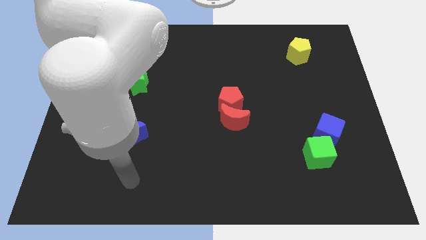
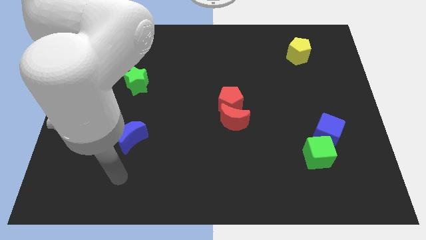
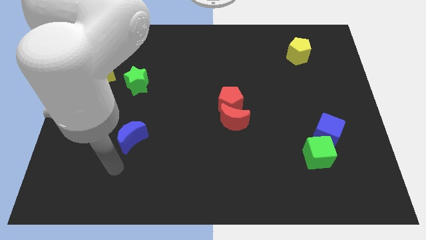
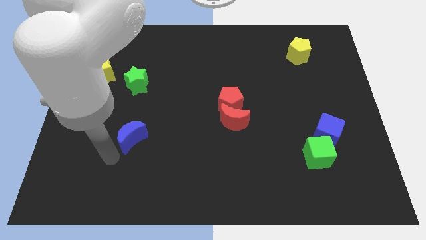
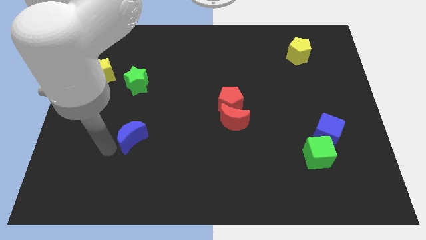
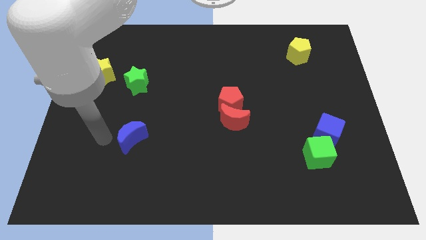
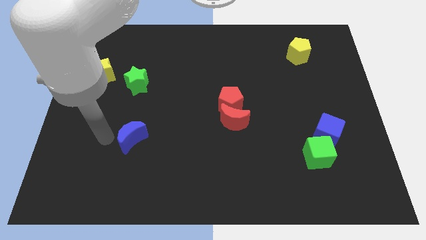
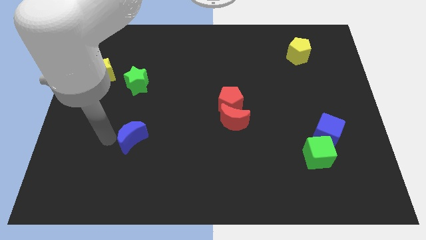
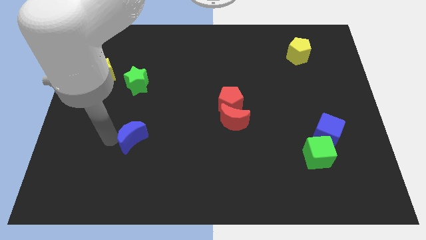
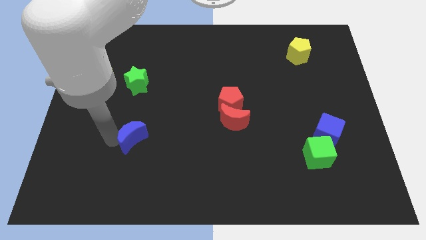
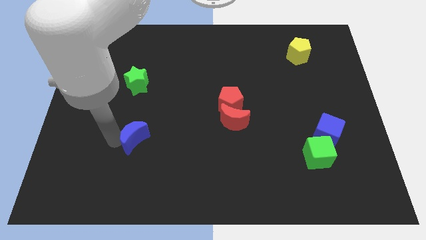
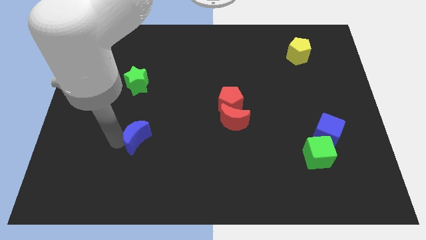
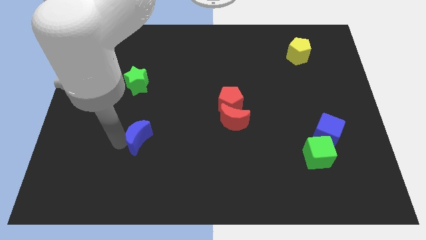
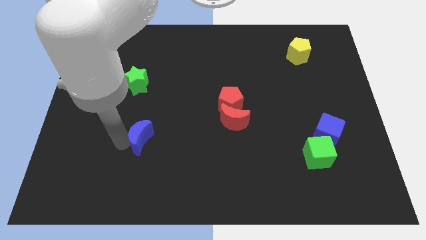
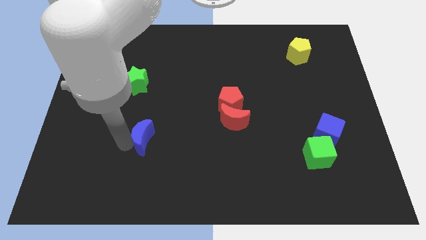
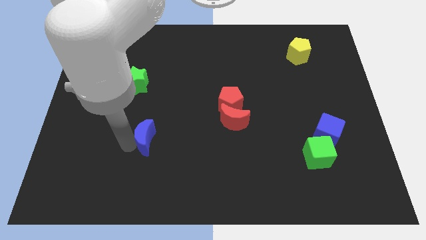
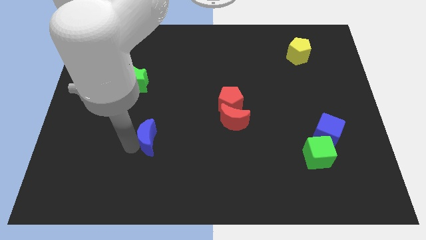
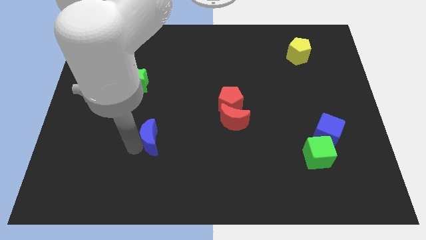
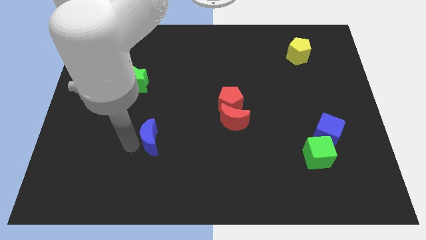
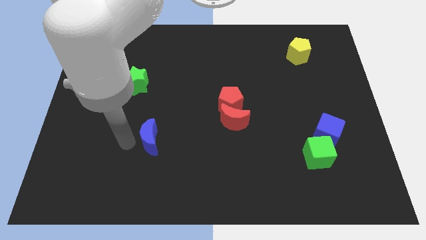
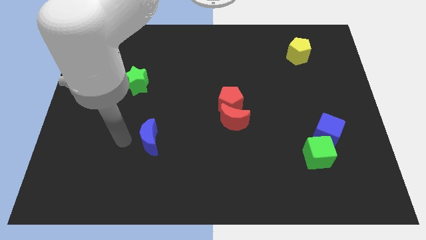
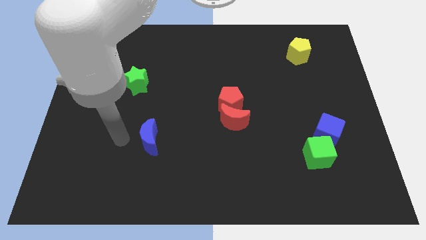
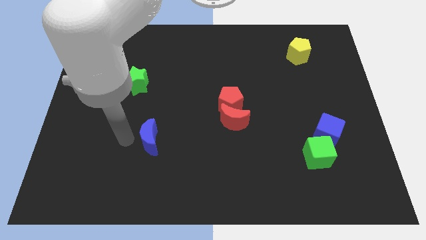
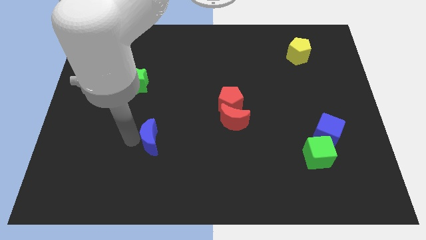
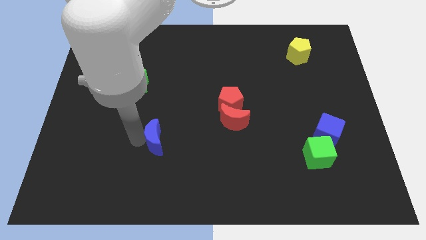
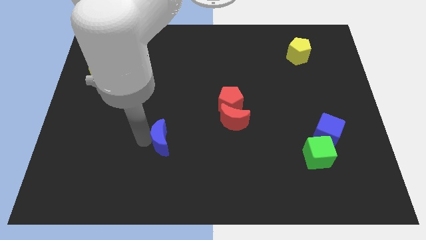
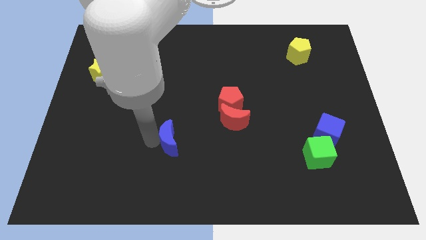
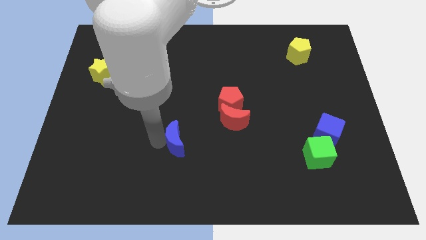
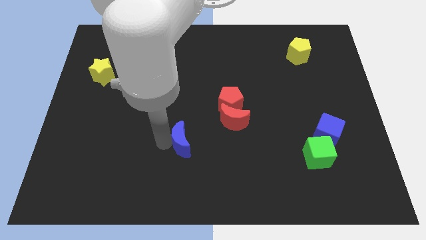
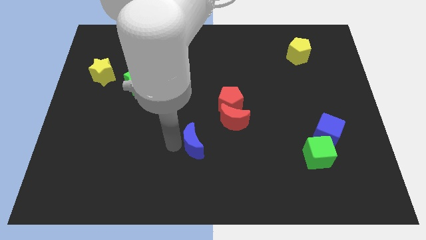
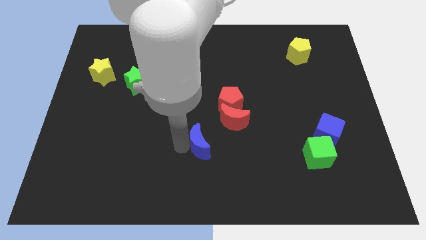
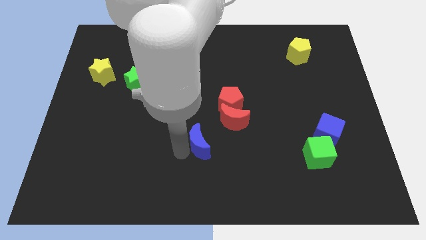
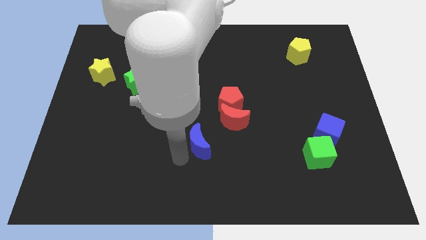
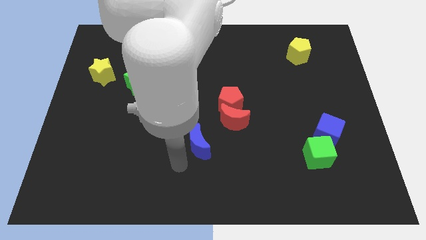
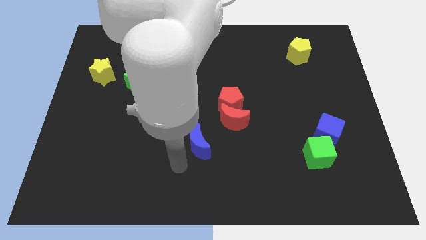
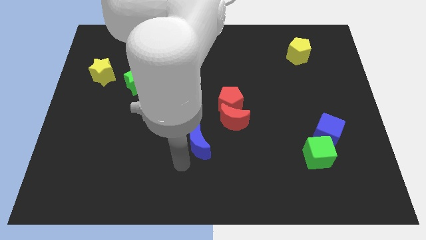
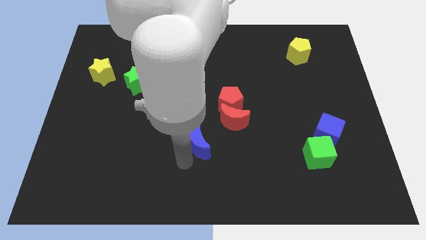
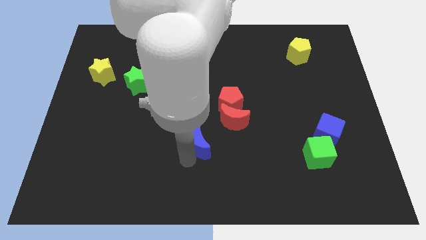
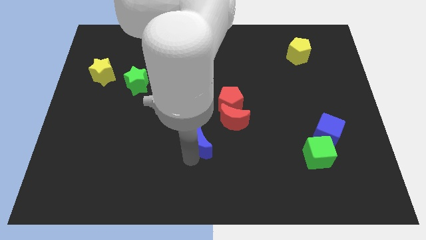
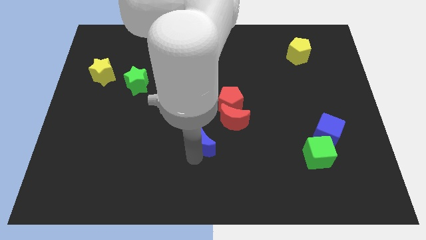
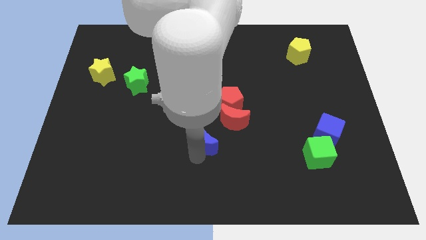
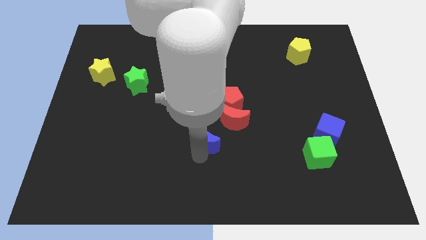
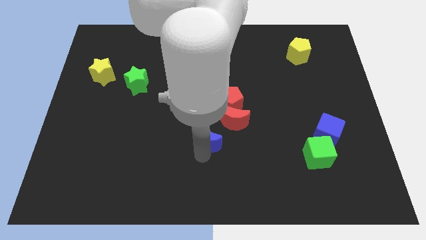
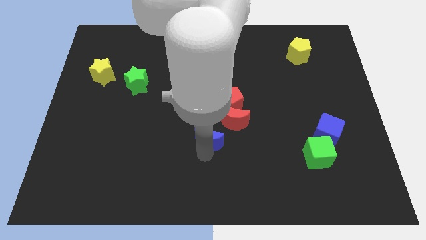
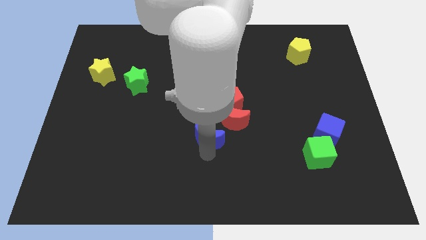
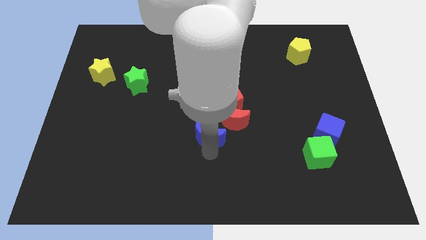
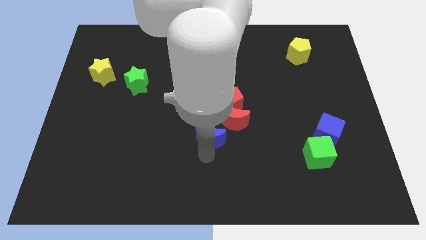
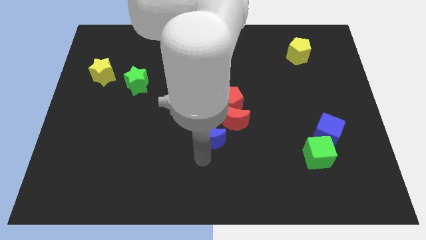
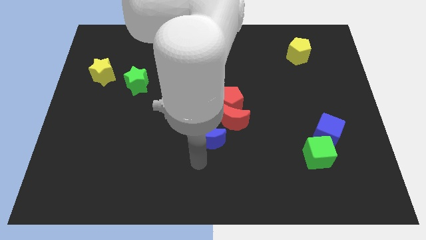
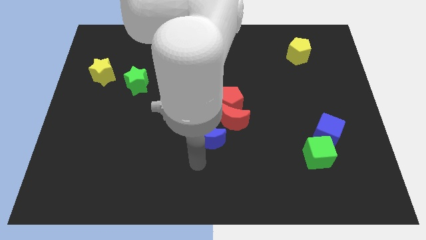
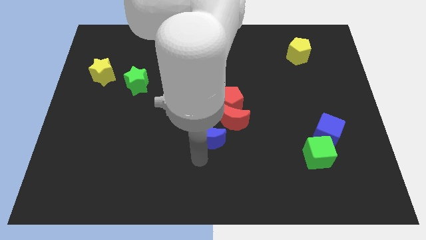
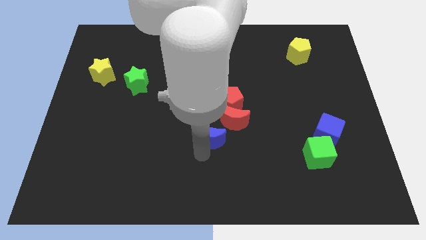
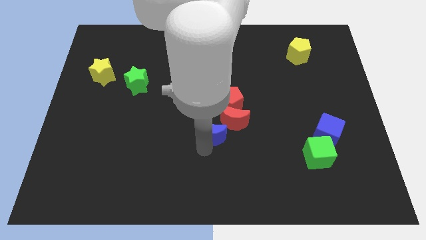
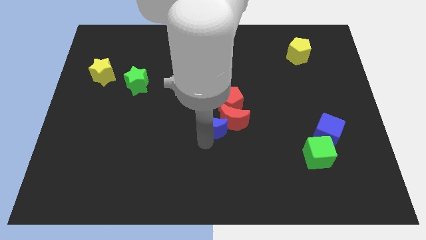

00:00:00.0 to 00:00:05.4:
put the blue moon close to the red moon

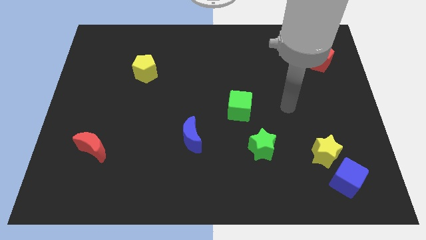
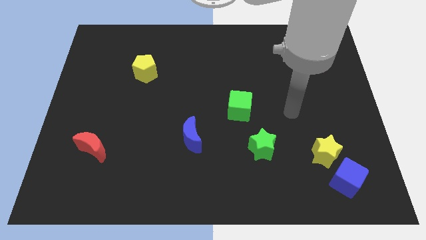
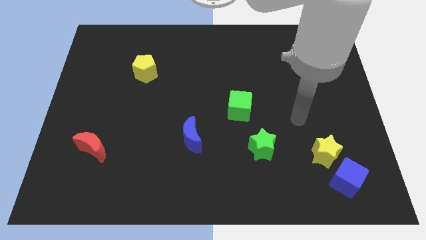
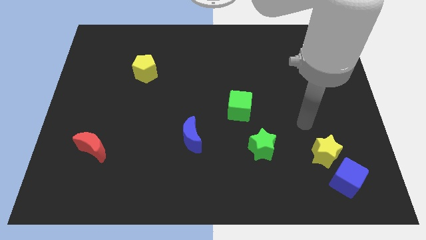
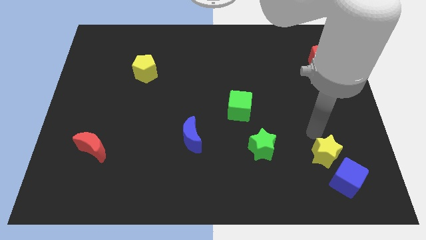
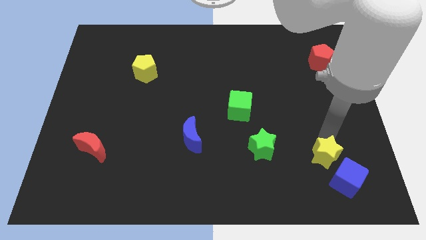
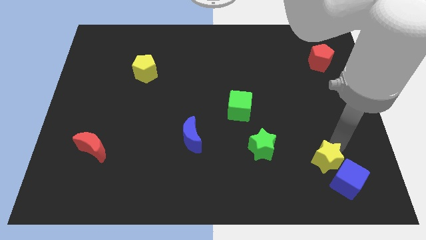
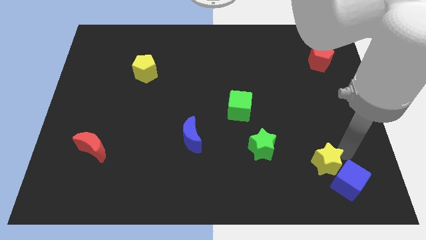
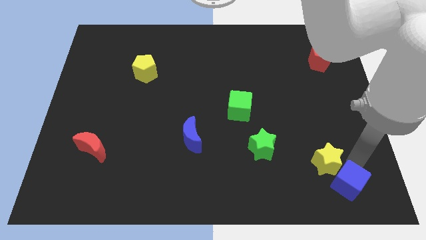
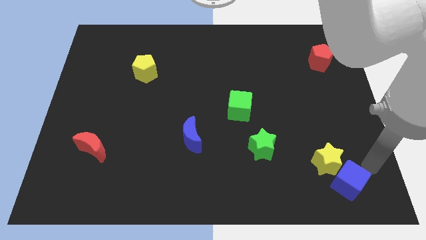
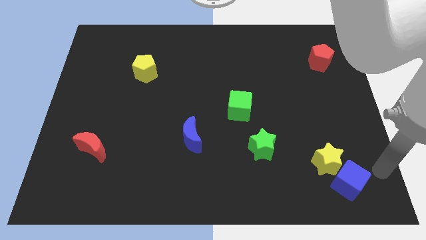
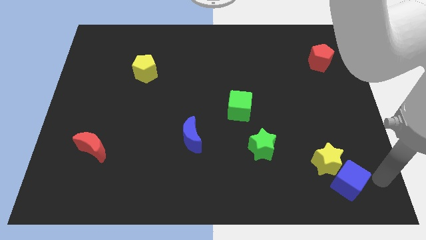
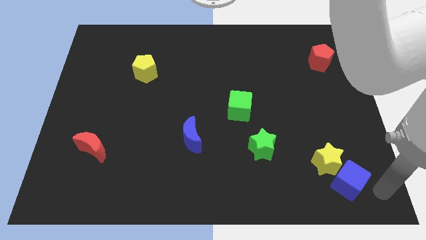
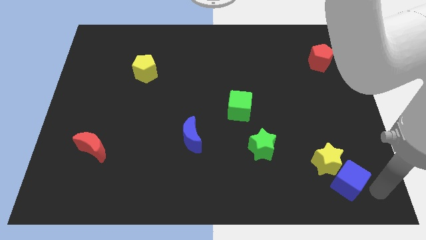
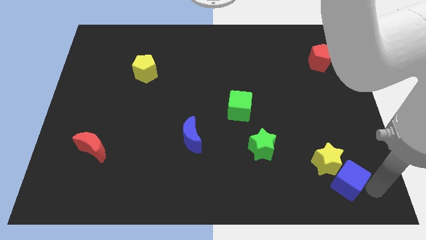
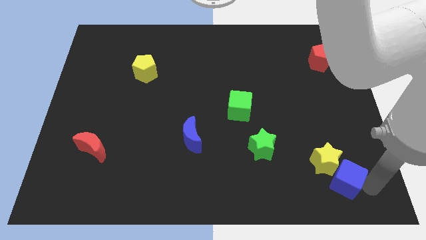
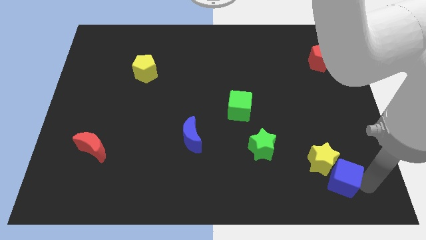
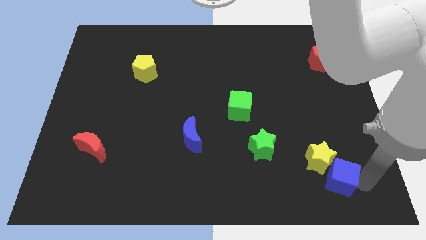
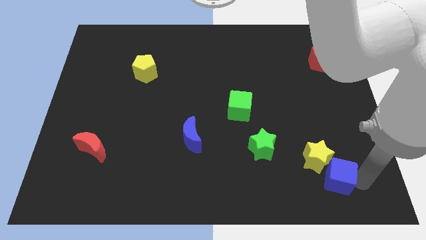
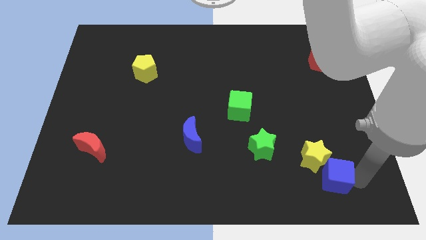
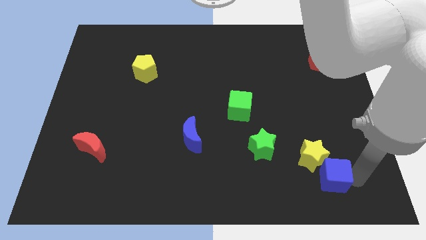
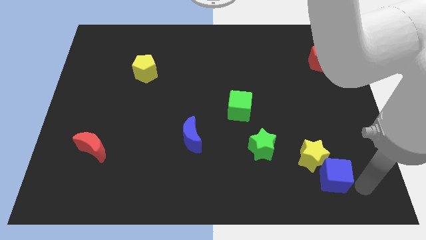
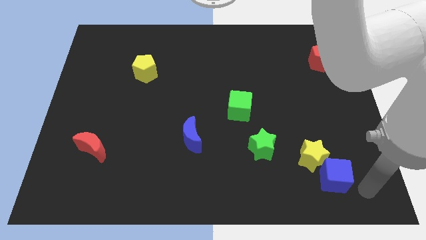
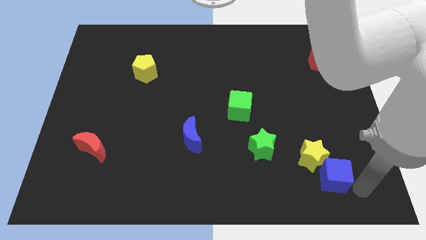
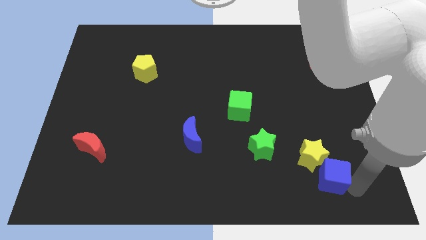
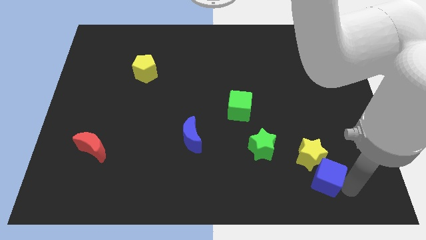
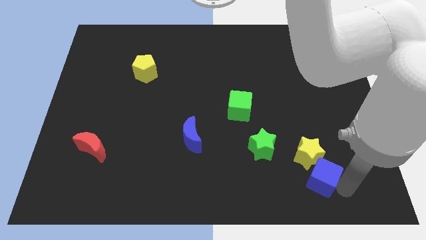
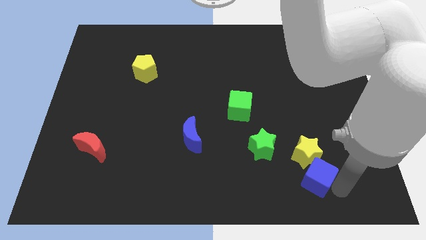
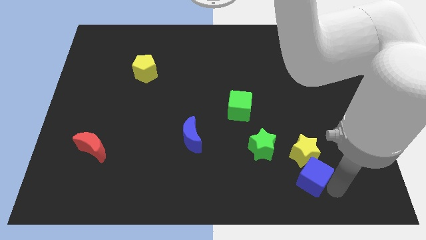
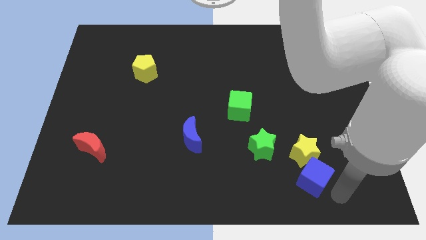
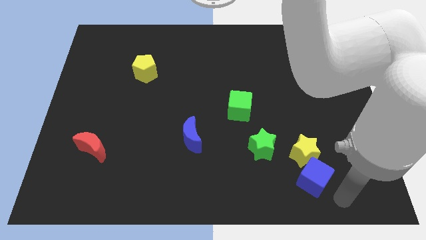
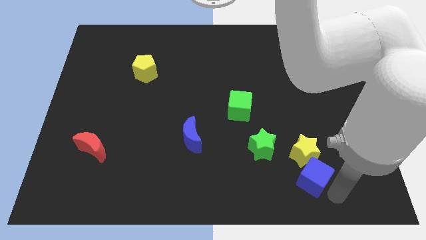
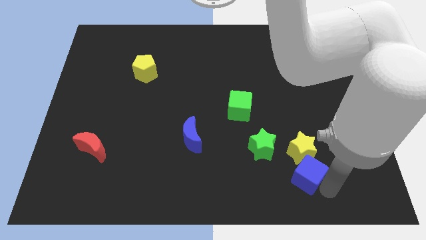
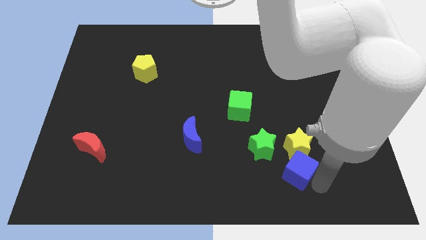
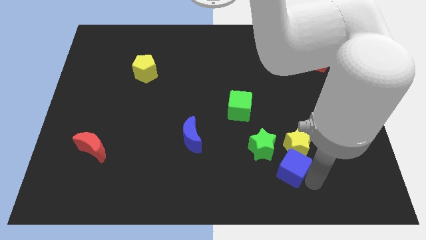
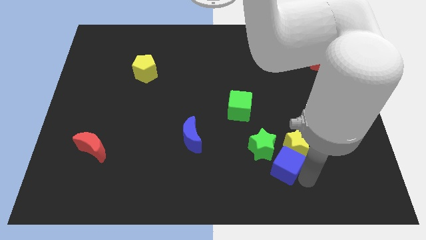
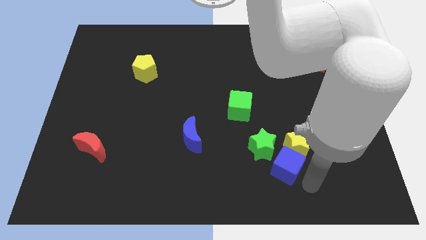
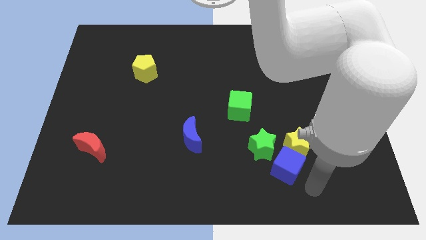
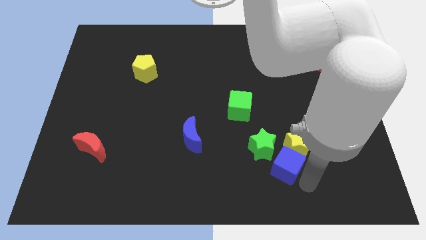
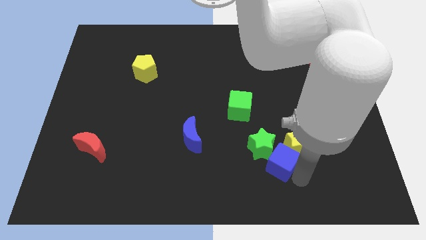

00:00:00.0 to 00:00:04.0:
move the blue cube to the green star
